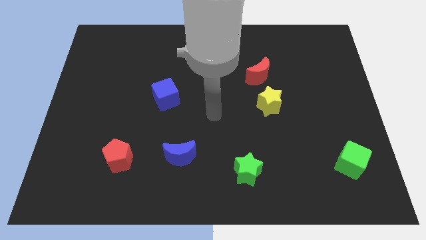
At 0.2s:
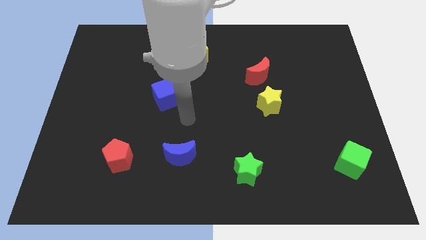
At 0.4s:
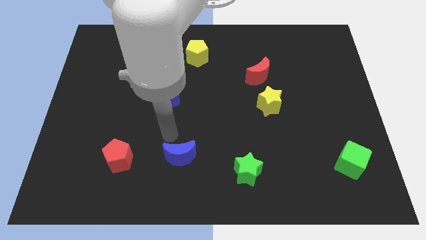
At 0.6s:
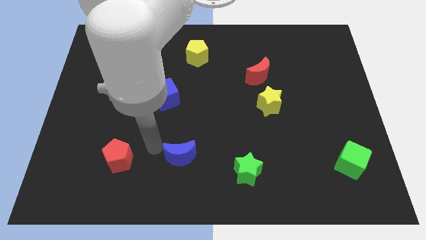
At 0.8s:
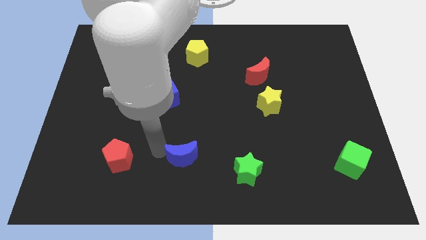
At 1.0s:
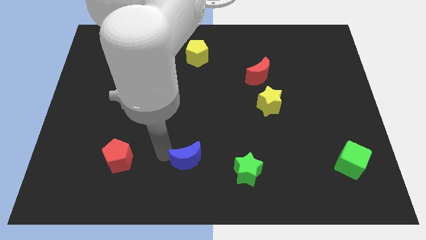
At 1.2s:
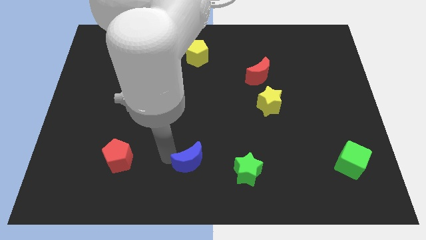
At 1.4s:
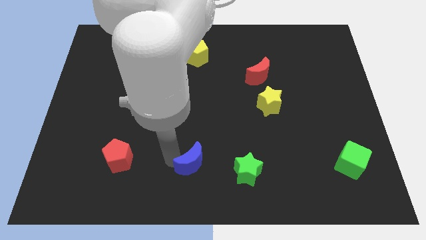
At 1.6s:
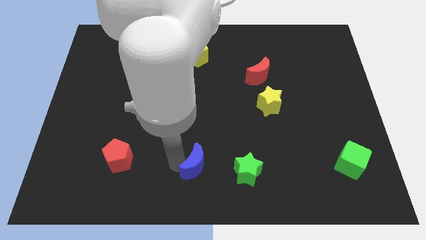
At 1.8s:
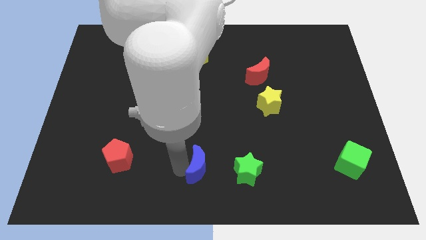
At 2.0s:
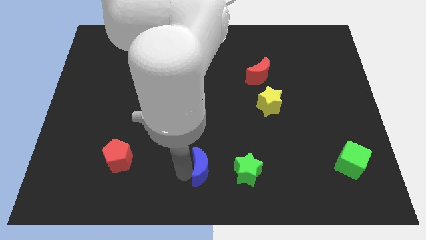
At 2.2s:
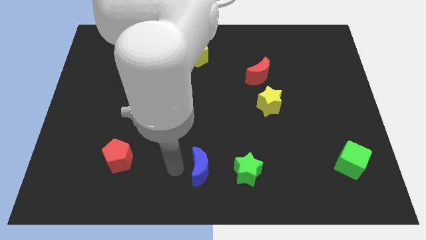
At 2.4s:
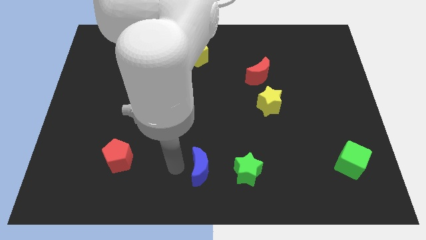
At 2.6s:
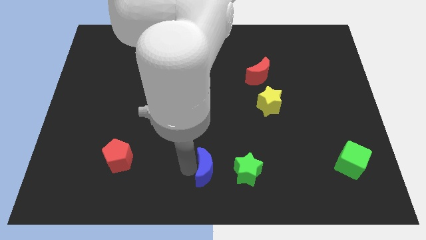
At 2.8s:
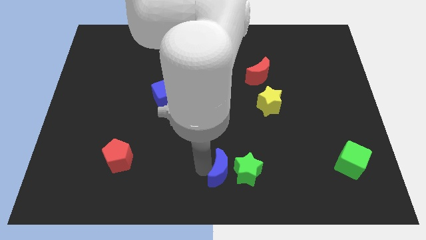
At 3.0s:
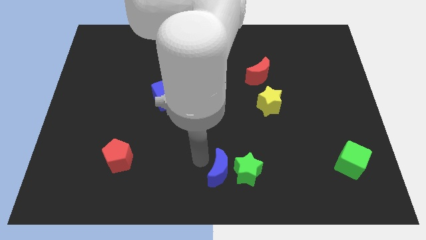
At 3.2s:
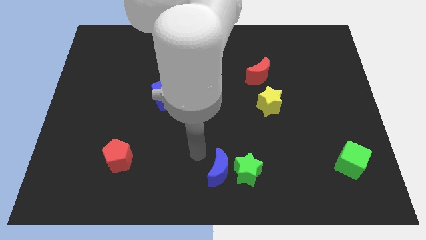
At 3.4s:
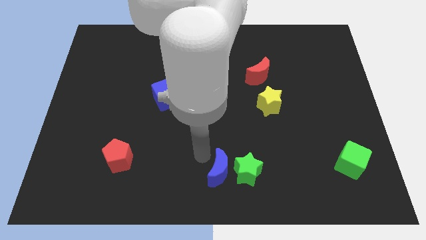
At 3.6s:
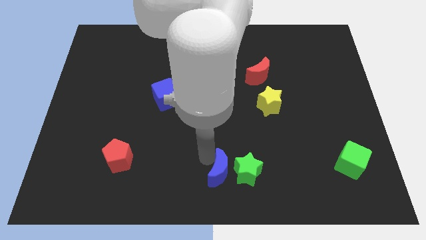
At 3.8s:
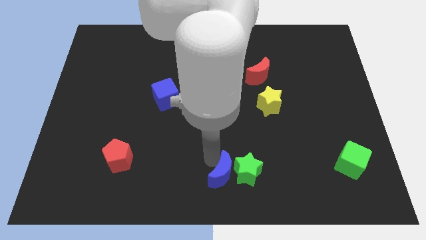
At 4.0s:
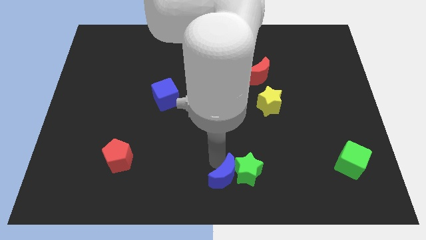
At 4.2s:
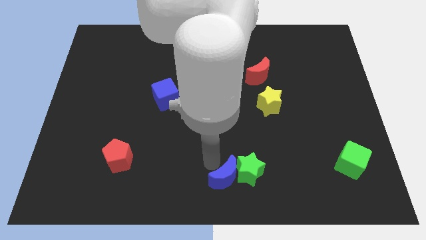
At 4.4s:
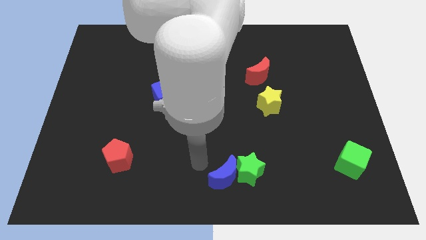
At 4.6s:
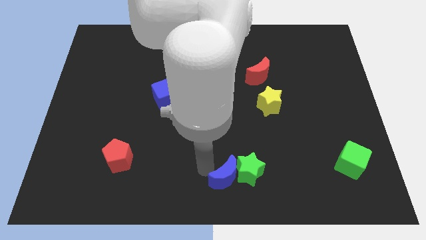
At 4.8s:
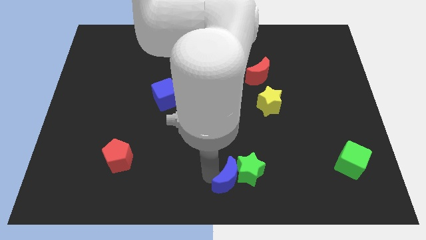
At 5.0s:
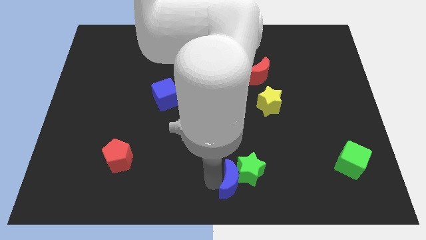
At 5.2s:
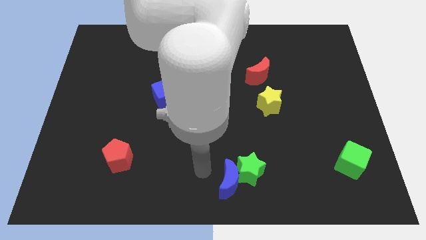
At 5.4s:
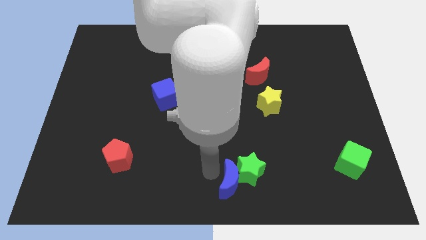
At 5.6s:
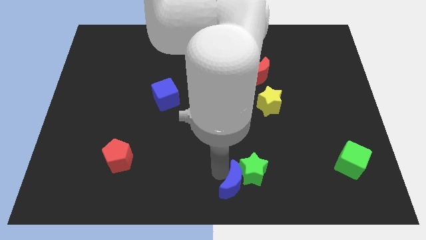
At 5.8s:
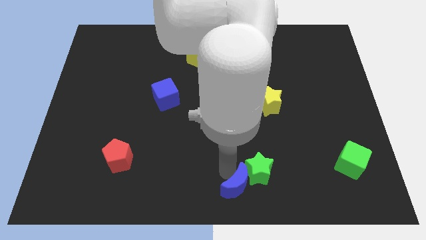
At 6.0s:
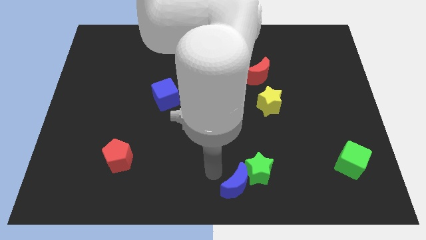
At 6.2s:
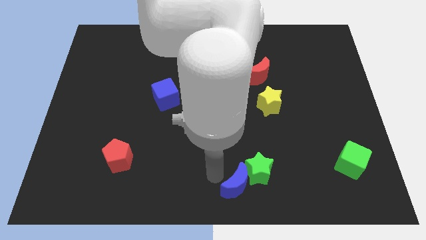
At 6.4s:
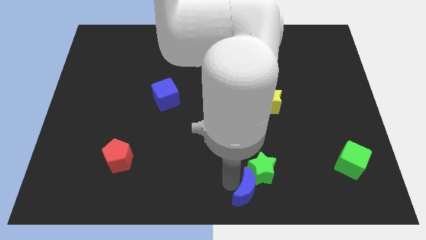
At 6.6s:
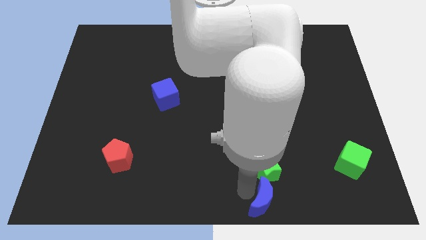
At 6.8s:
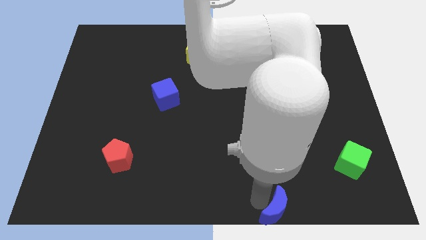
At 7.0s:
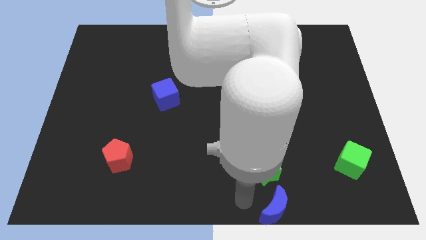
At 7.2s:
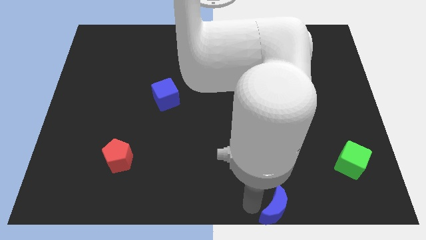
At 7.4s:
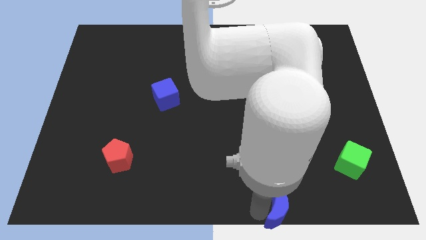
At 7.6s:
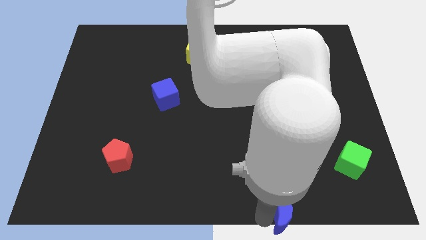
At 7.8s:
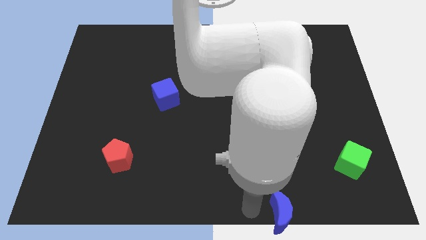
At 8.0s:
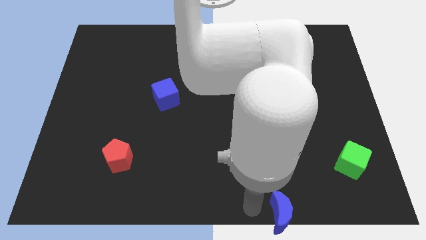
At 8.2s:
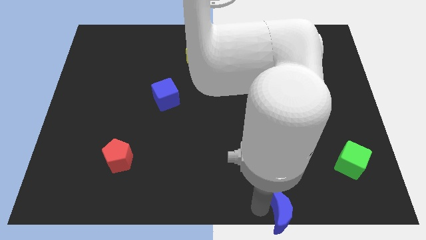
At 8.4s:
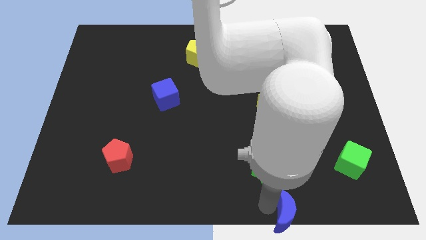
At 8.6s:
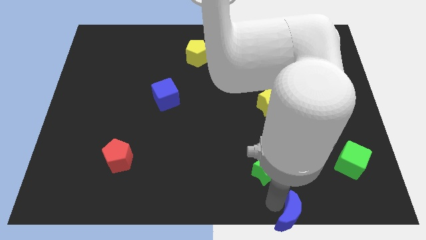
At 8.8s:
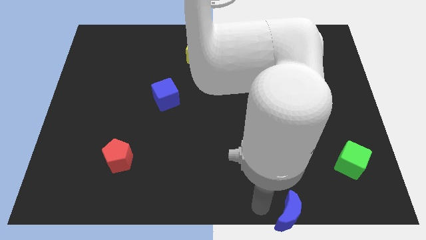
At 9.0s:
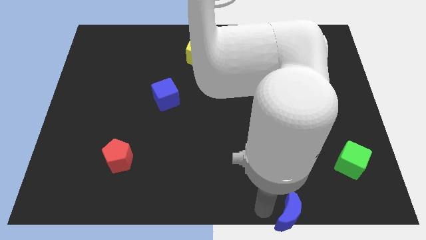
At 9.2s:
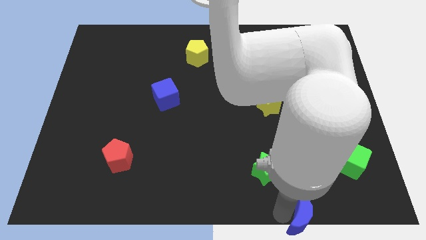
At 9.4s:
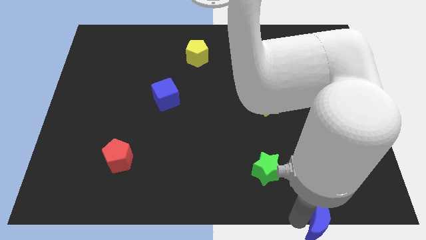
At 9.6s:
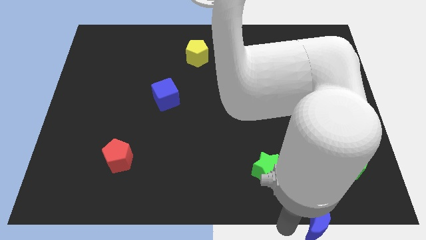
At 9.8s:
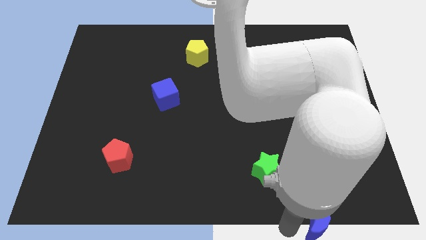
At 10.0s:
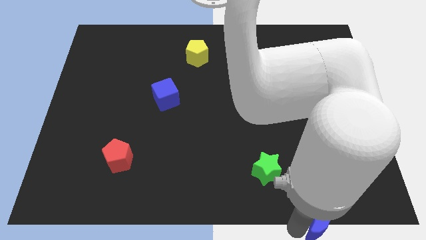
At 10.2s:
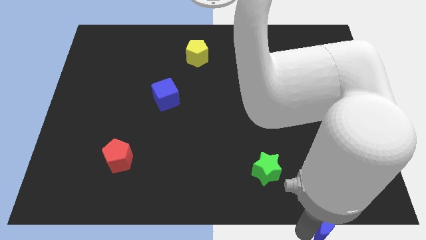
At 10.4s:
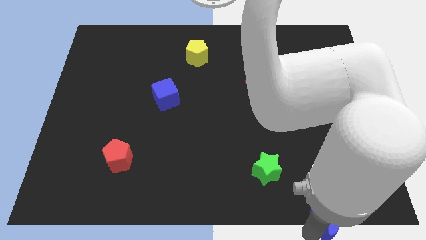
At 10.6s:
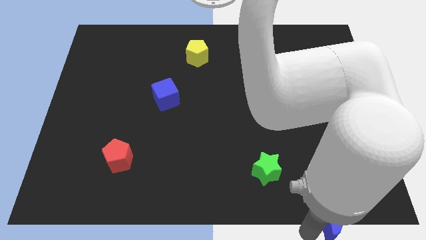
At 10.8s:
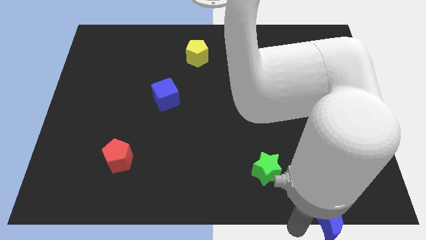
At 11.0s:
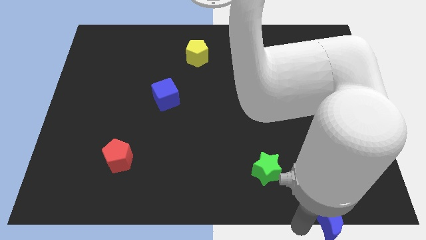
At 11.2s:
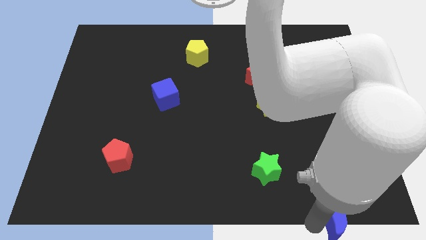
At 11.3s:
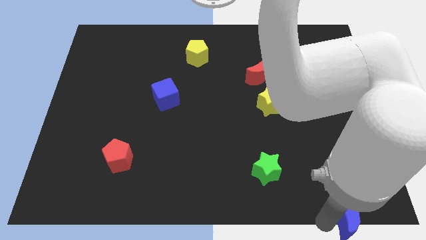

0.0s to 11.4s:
slide the blue moon to the bottom right corner
